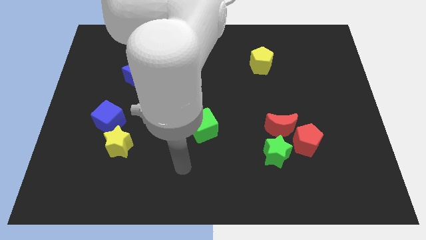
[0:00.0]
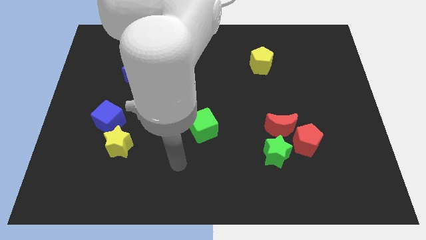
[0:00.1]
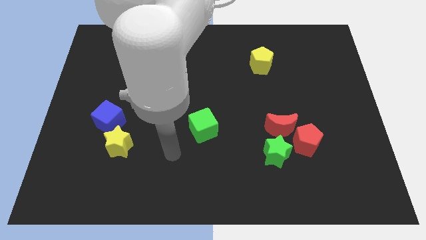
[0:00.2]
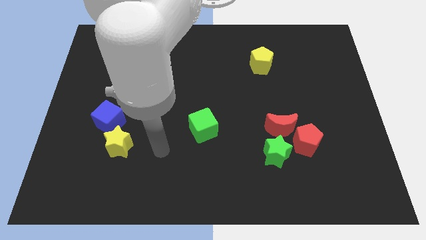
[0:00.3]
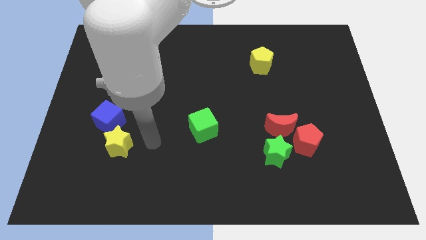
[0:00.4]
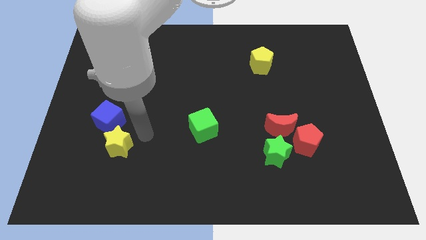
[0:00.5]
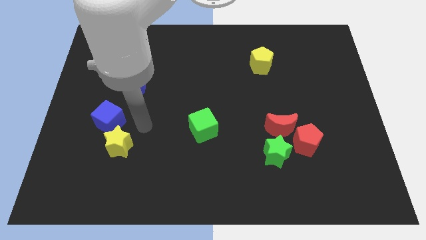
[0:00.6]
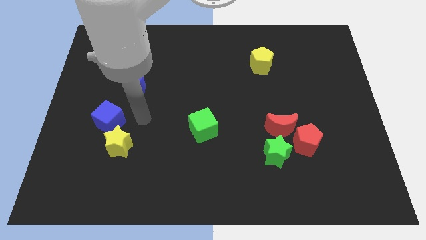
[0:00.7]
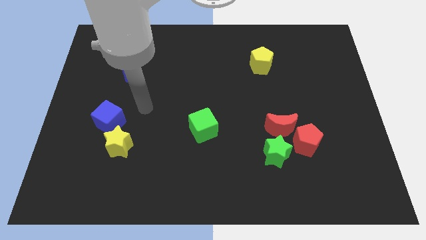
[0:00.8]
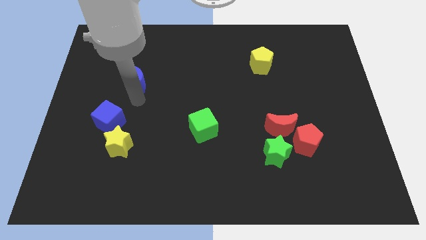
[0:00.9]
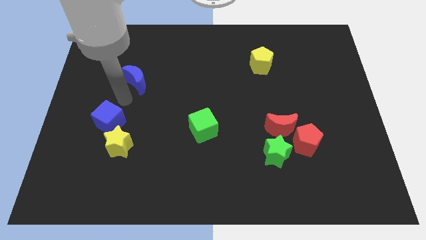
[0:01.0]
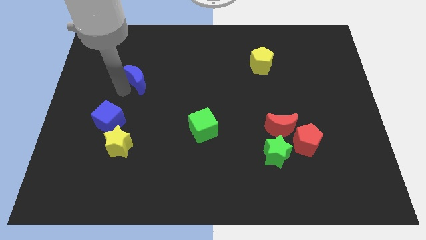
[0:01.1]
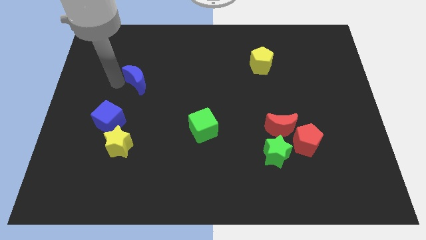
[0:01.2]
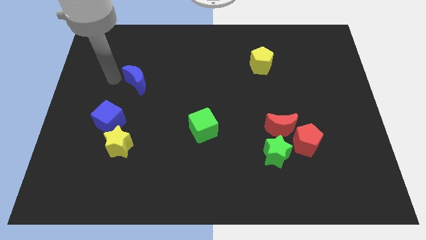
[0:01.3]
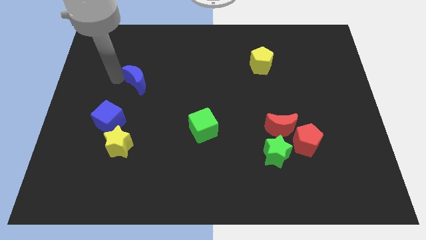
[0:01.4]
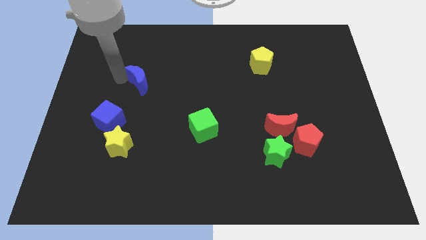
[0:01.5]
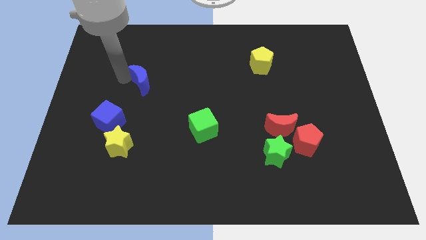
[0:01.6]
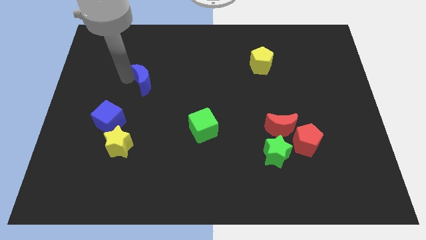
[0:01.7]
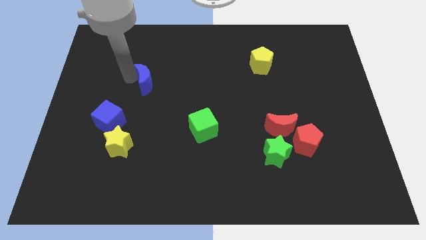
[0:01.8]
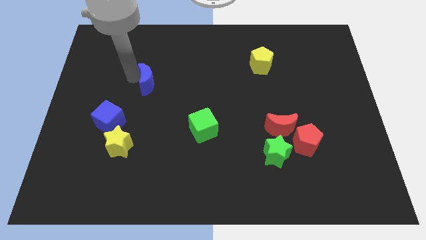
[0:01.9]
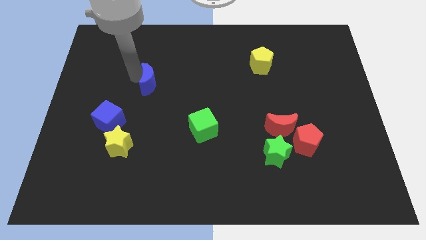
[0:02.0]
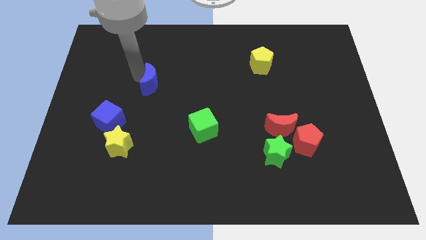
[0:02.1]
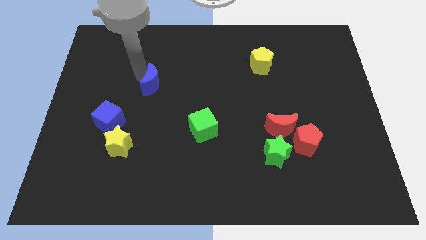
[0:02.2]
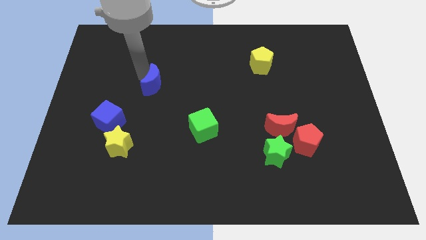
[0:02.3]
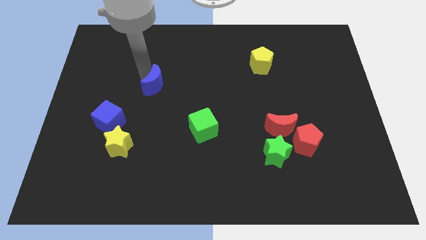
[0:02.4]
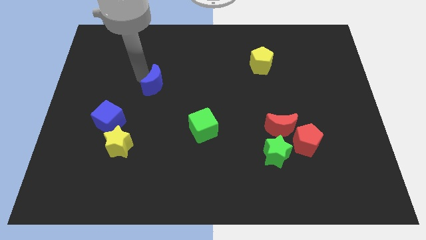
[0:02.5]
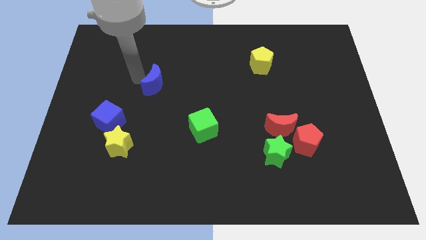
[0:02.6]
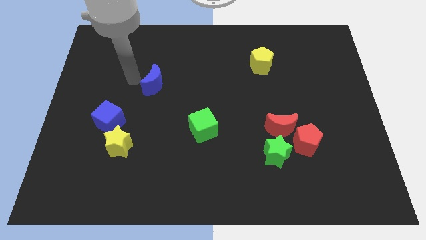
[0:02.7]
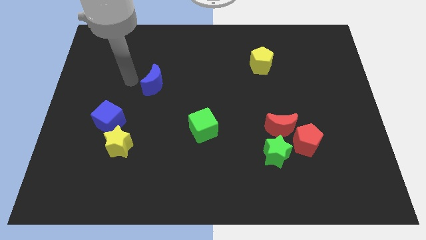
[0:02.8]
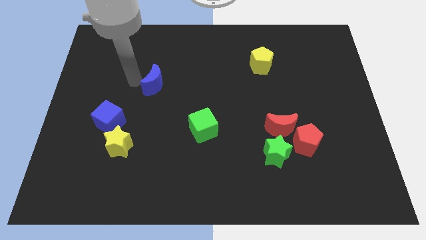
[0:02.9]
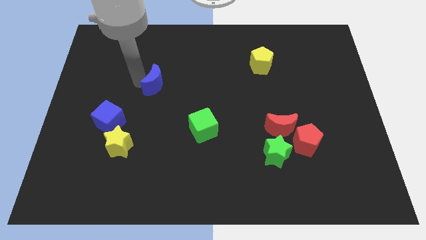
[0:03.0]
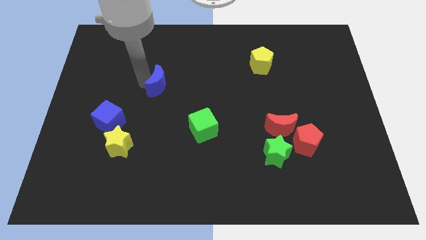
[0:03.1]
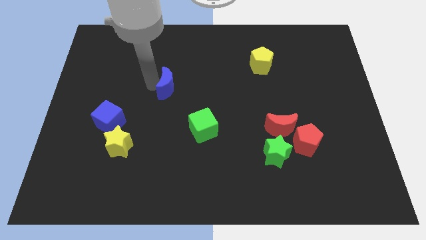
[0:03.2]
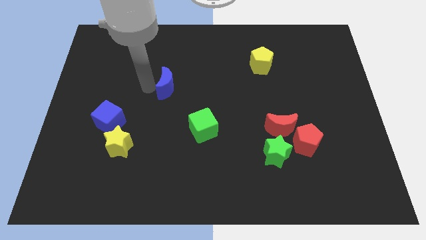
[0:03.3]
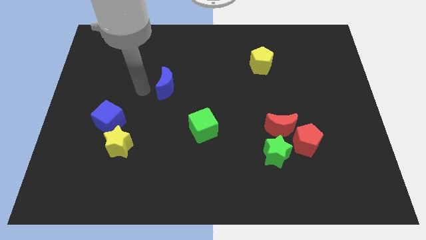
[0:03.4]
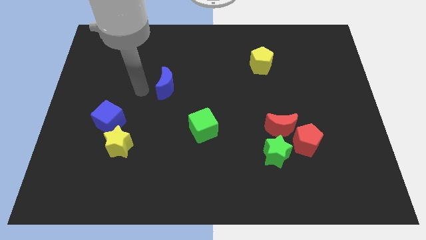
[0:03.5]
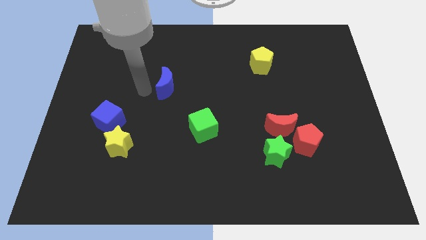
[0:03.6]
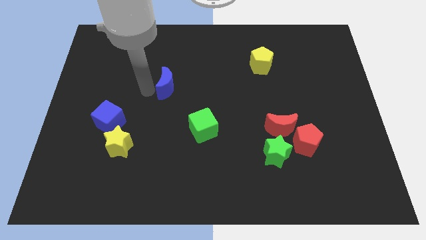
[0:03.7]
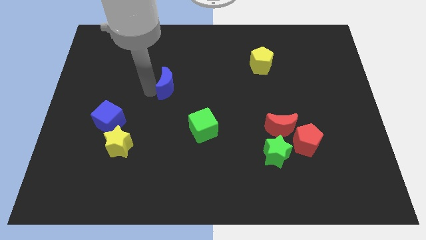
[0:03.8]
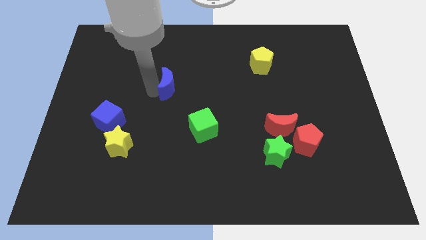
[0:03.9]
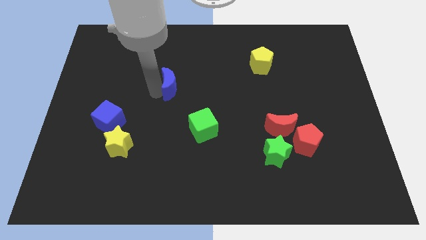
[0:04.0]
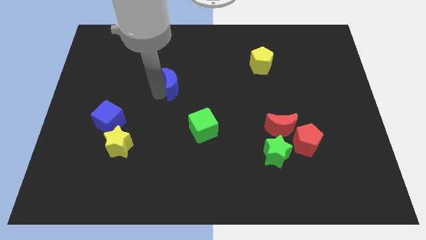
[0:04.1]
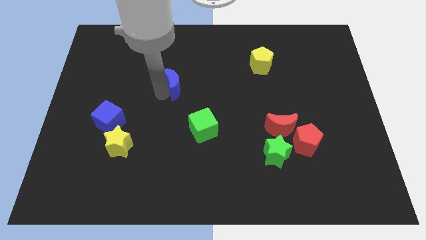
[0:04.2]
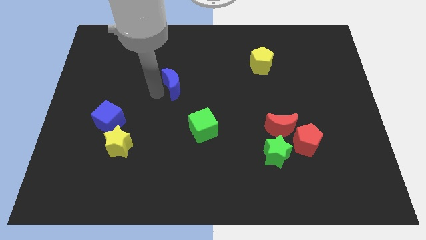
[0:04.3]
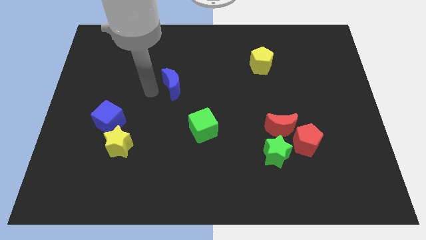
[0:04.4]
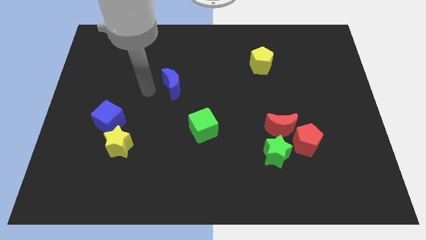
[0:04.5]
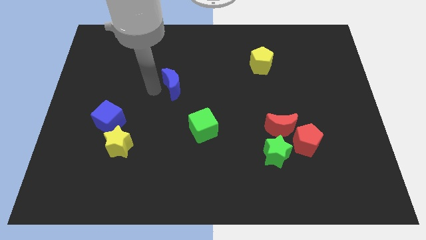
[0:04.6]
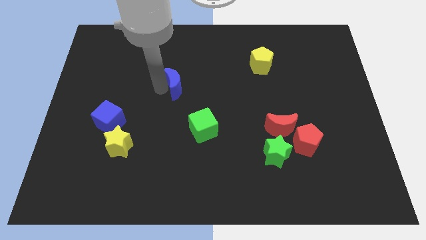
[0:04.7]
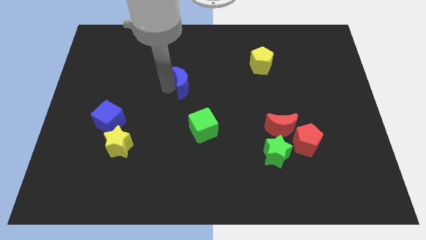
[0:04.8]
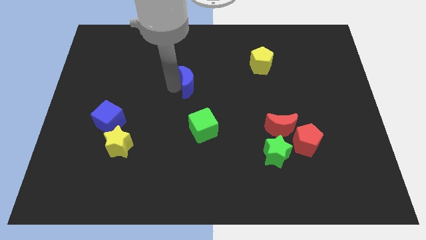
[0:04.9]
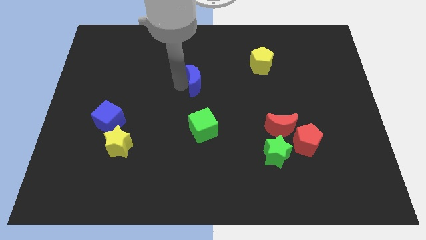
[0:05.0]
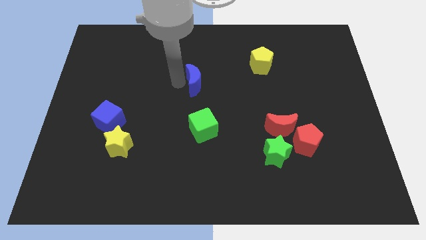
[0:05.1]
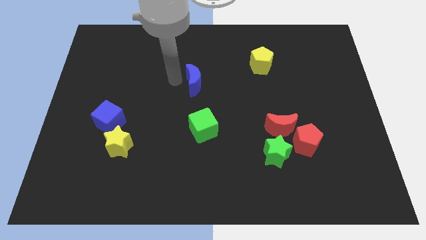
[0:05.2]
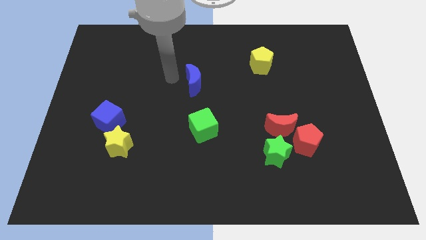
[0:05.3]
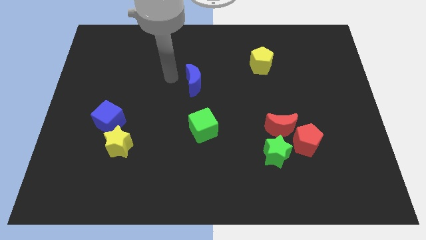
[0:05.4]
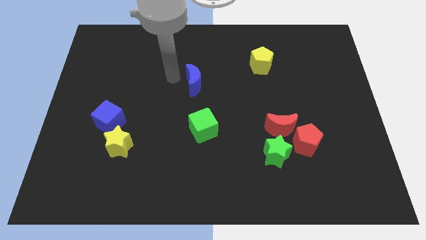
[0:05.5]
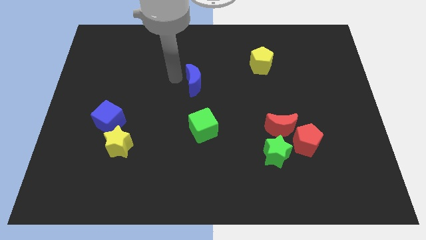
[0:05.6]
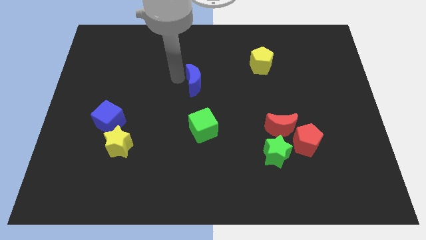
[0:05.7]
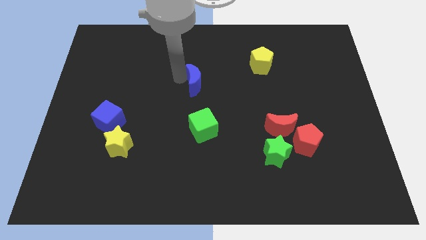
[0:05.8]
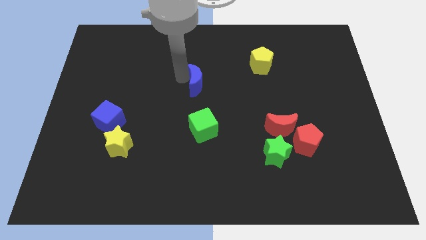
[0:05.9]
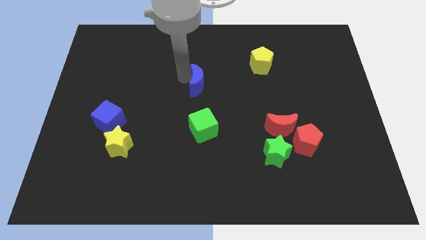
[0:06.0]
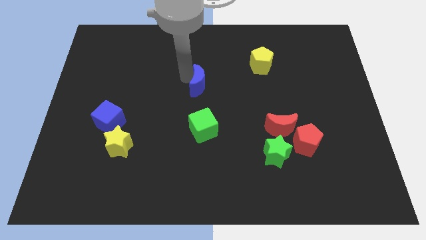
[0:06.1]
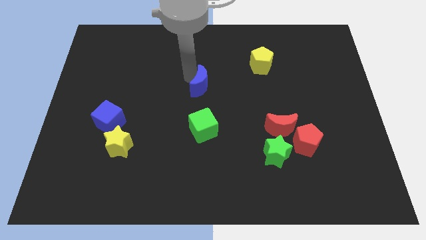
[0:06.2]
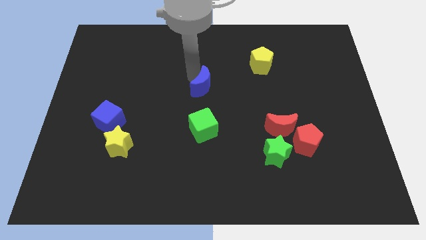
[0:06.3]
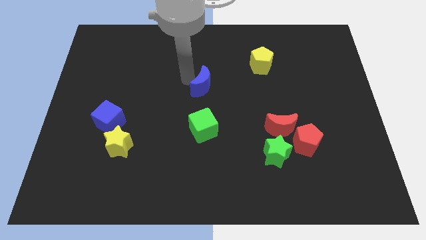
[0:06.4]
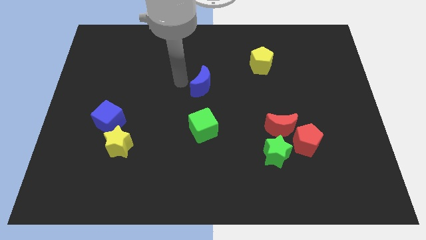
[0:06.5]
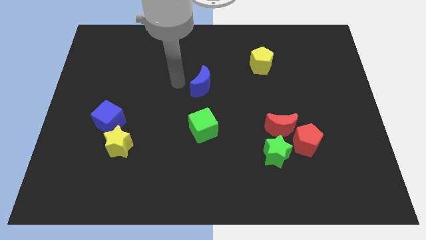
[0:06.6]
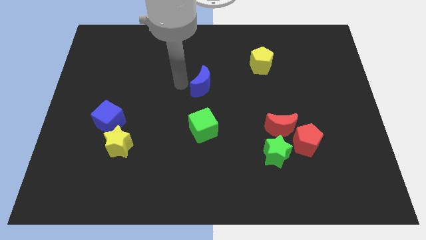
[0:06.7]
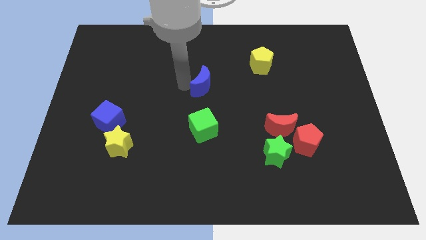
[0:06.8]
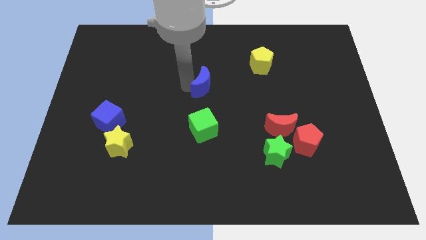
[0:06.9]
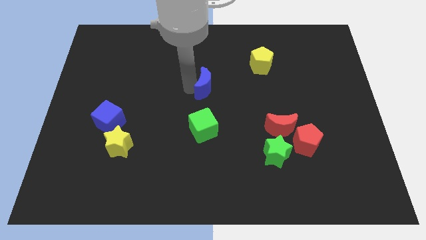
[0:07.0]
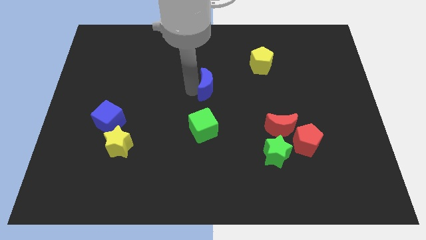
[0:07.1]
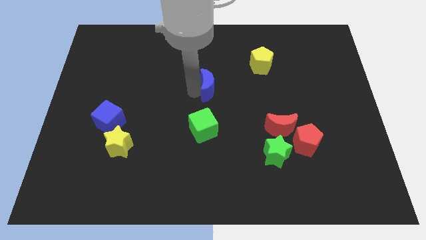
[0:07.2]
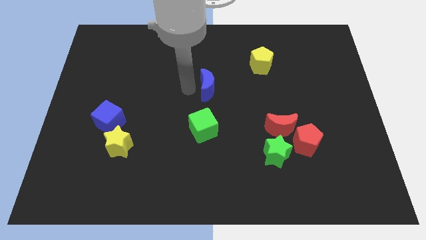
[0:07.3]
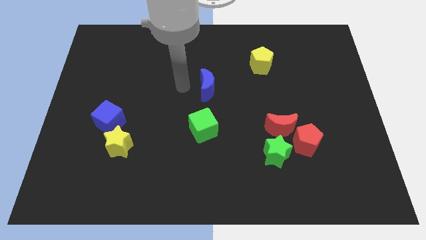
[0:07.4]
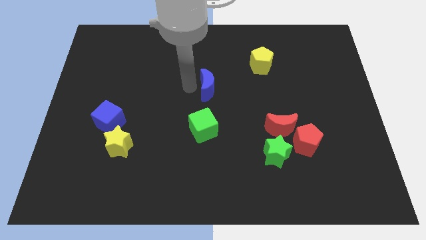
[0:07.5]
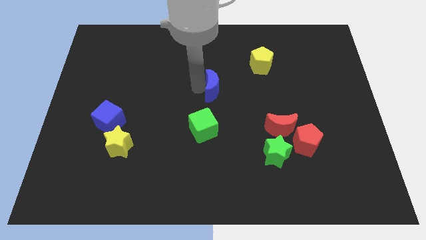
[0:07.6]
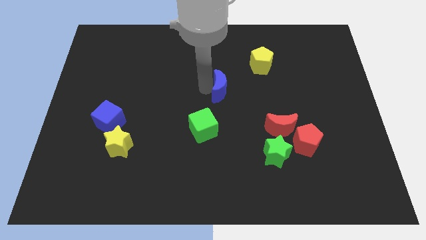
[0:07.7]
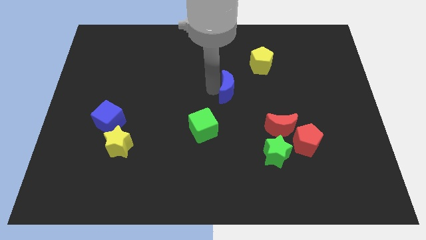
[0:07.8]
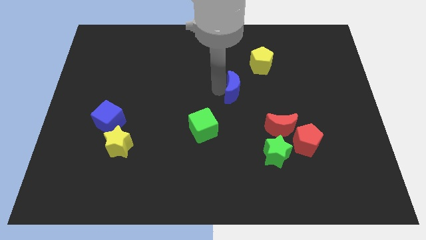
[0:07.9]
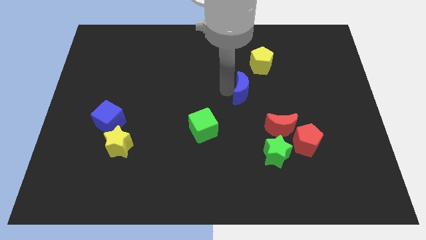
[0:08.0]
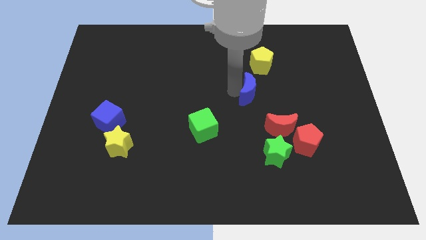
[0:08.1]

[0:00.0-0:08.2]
move the blue moon below the yellow pentagon

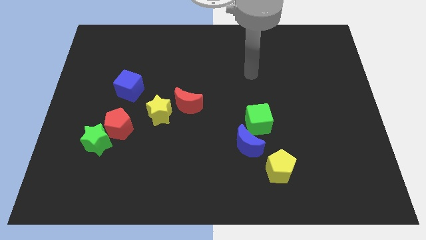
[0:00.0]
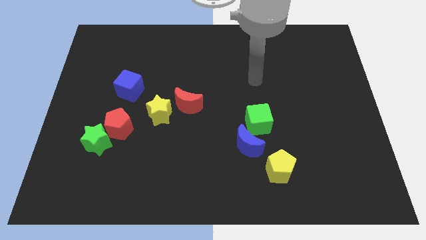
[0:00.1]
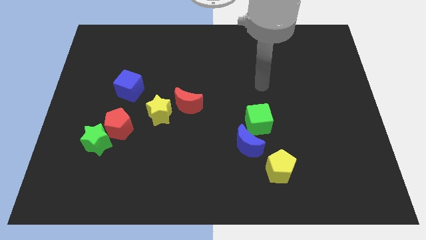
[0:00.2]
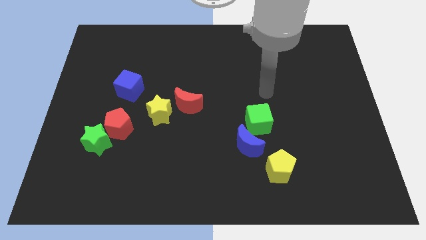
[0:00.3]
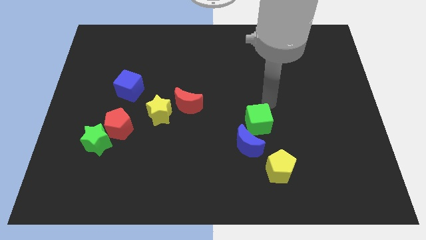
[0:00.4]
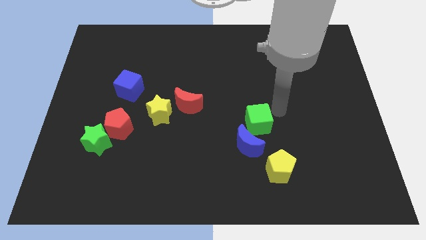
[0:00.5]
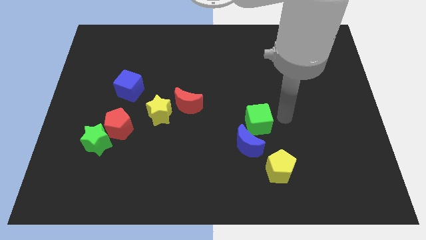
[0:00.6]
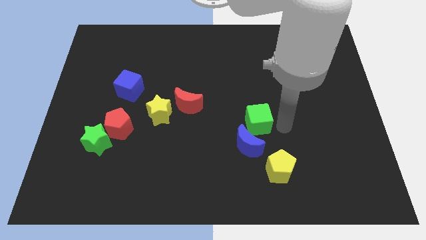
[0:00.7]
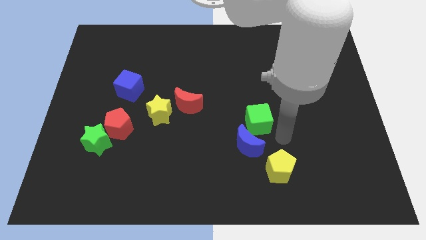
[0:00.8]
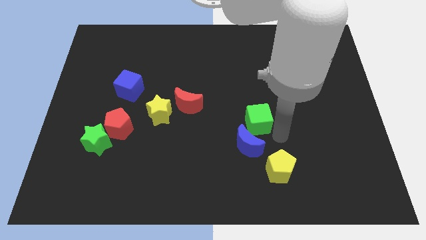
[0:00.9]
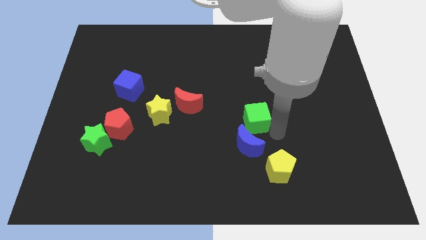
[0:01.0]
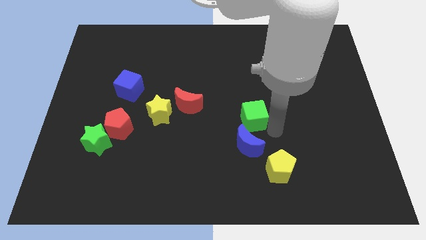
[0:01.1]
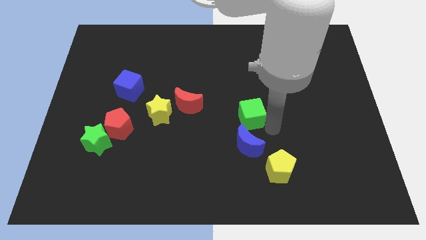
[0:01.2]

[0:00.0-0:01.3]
push the green cube right of the red moon
